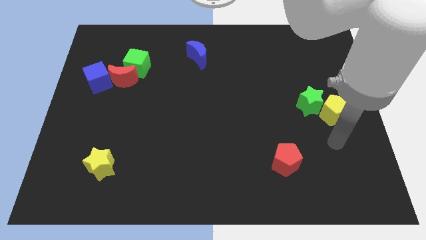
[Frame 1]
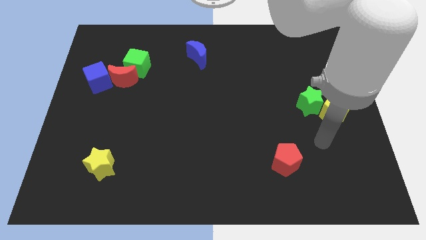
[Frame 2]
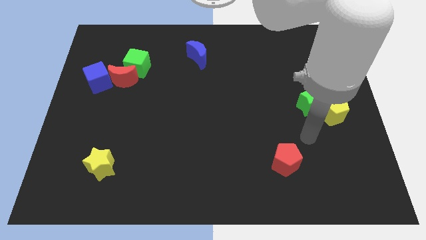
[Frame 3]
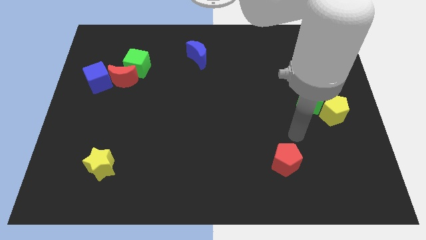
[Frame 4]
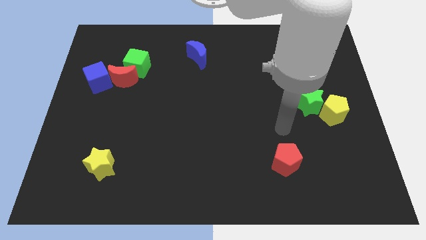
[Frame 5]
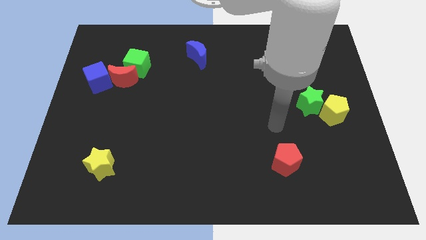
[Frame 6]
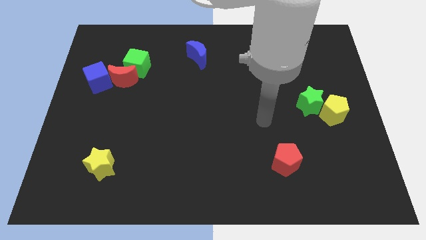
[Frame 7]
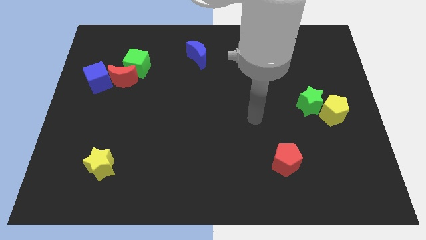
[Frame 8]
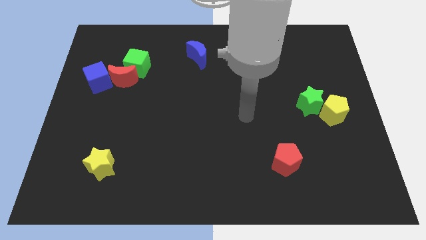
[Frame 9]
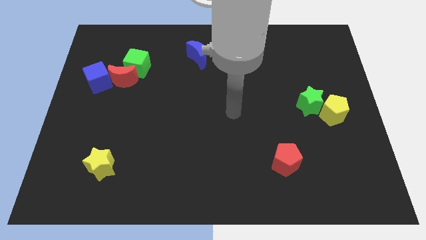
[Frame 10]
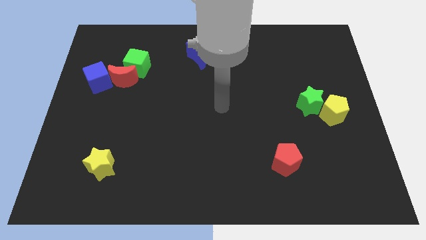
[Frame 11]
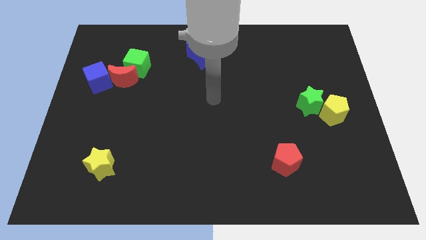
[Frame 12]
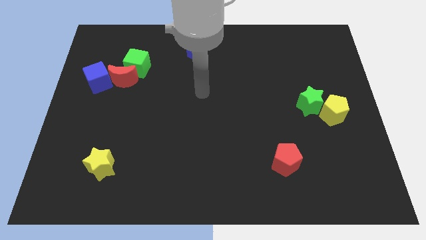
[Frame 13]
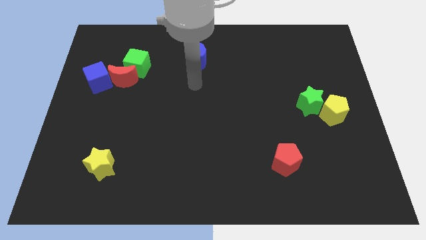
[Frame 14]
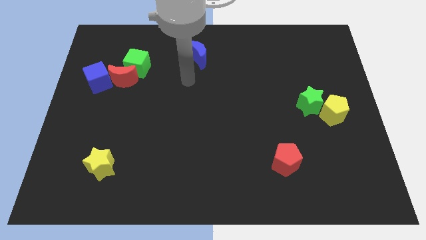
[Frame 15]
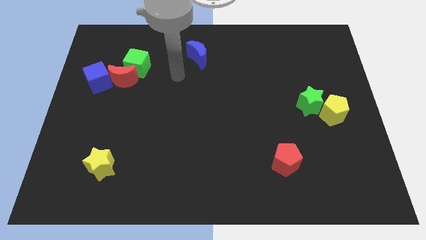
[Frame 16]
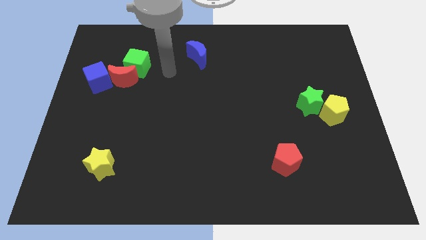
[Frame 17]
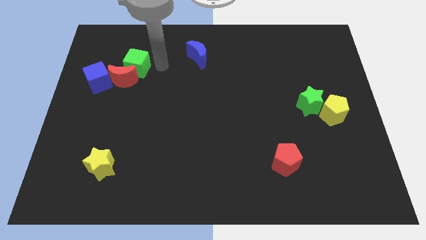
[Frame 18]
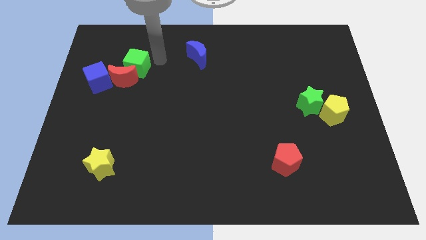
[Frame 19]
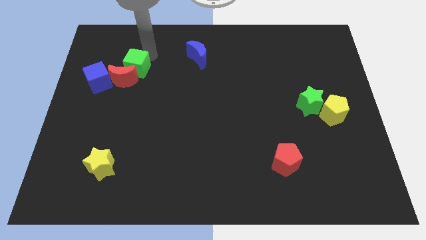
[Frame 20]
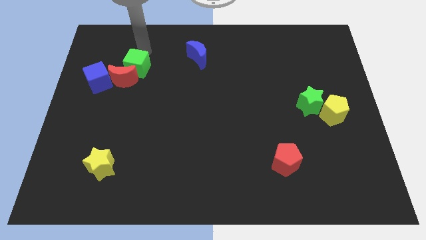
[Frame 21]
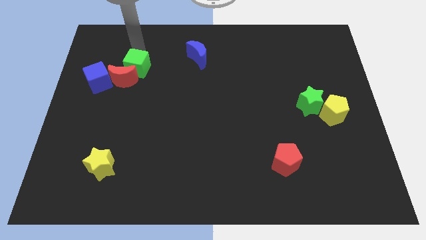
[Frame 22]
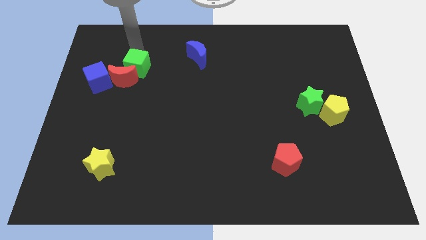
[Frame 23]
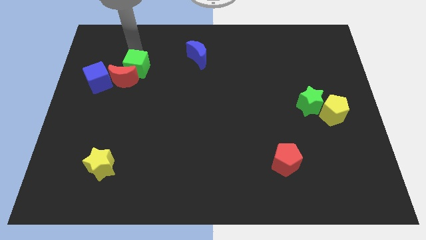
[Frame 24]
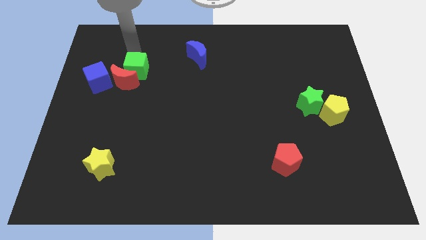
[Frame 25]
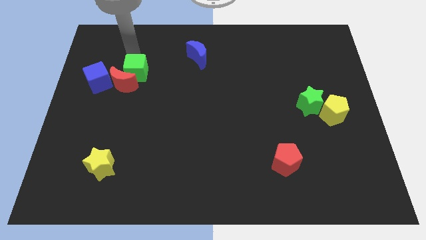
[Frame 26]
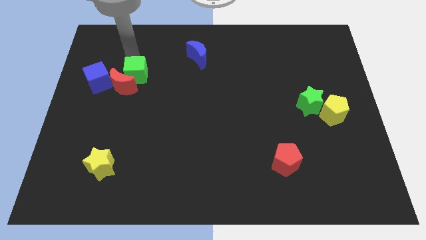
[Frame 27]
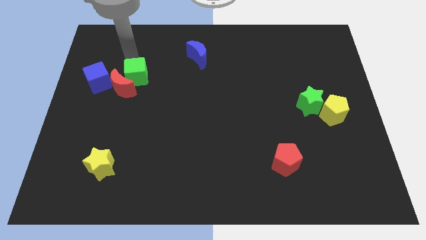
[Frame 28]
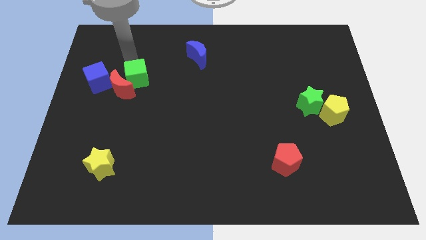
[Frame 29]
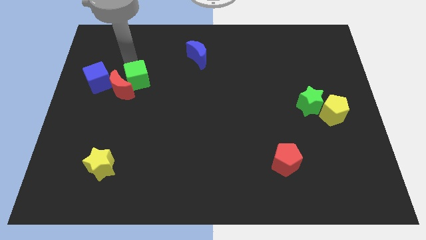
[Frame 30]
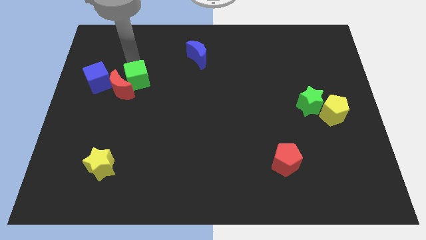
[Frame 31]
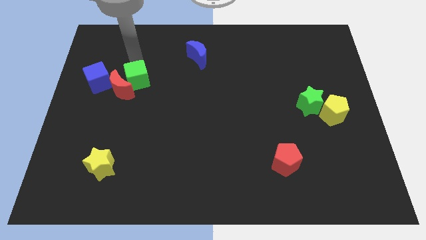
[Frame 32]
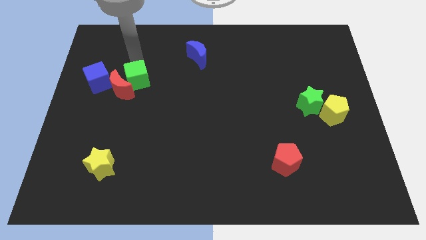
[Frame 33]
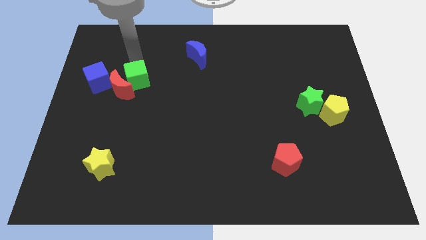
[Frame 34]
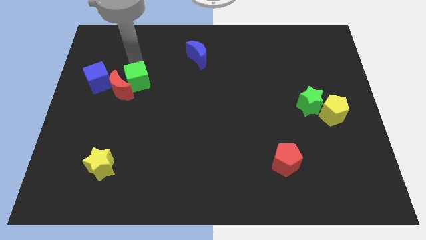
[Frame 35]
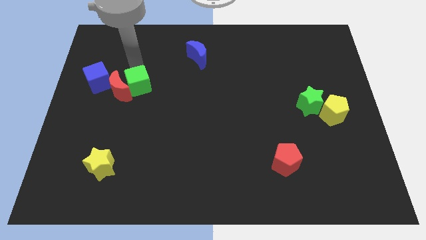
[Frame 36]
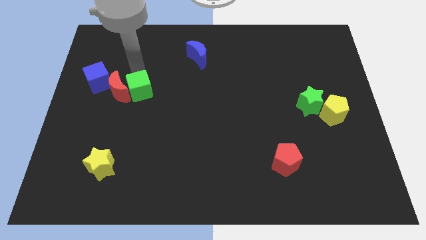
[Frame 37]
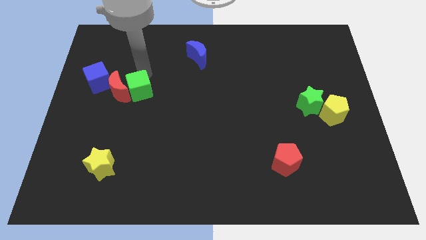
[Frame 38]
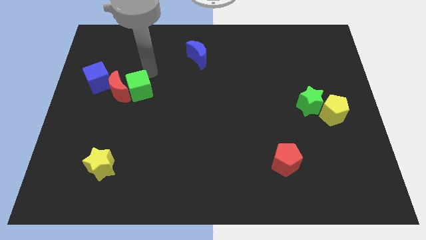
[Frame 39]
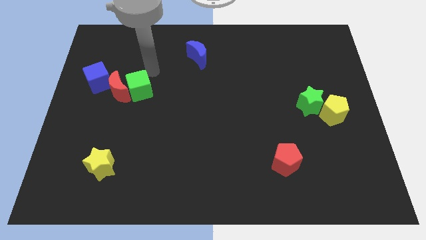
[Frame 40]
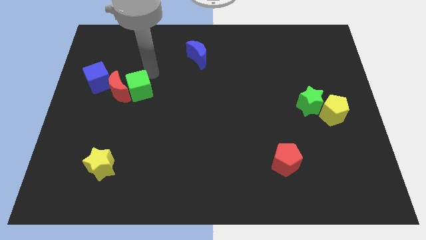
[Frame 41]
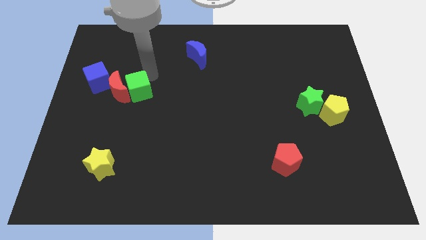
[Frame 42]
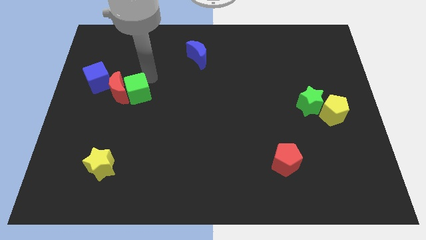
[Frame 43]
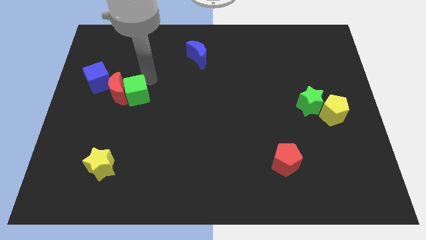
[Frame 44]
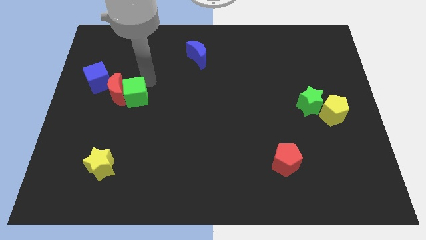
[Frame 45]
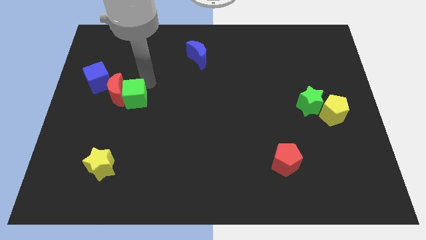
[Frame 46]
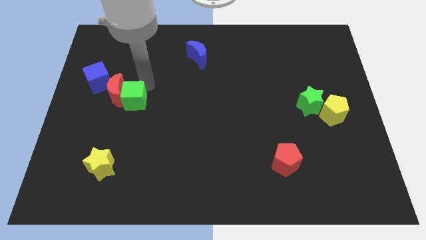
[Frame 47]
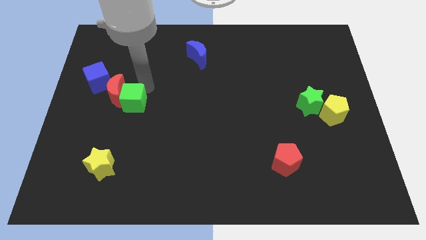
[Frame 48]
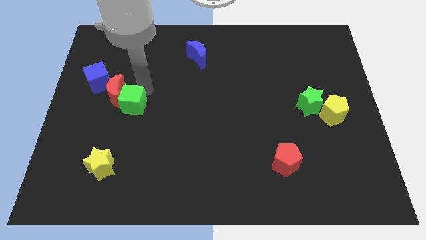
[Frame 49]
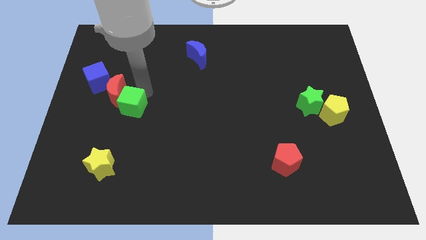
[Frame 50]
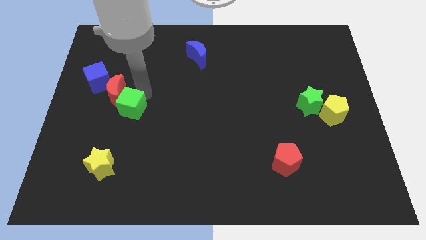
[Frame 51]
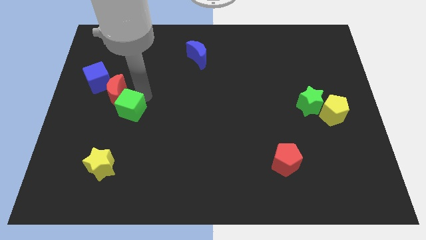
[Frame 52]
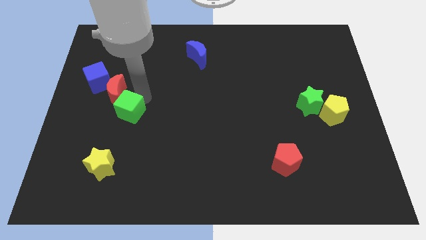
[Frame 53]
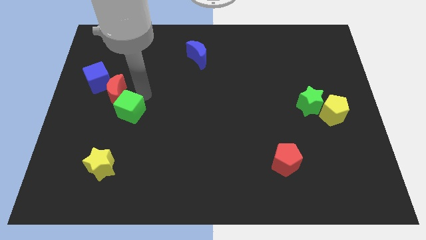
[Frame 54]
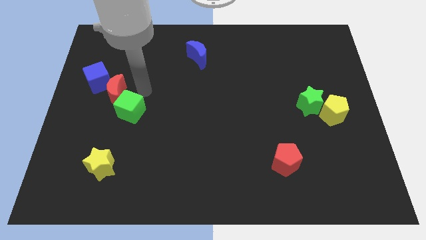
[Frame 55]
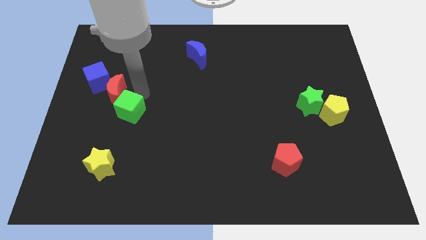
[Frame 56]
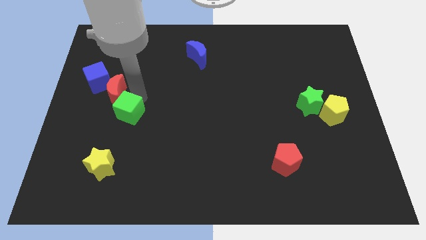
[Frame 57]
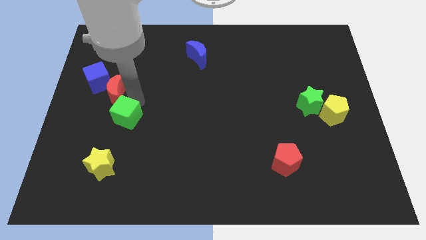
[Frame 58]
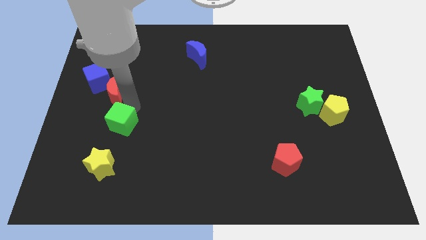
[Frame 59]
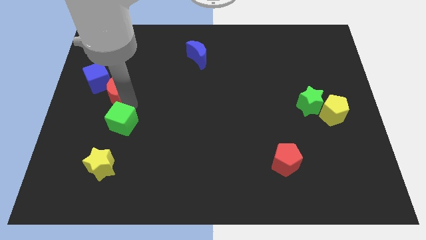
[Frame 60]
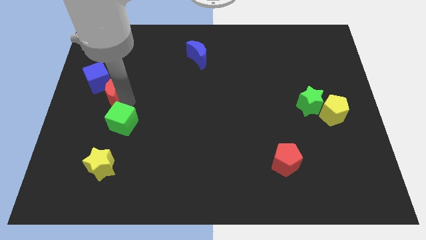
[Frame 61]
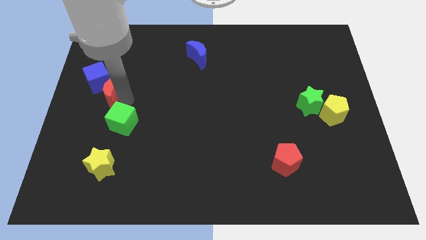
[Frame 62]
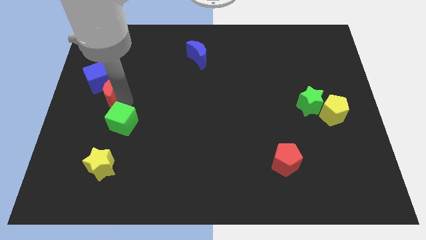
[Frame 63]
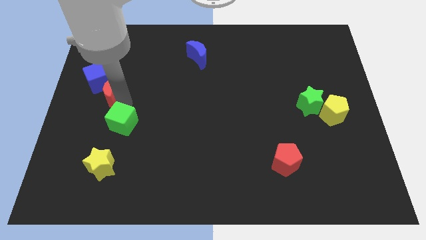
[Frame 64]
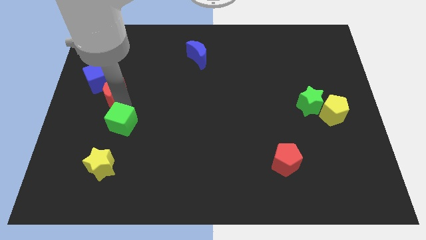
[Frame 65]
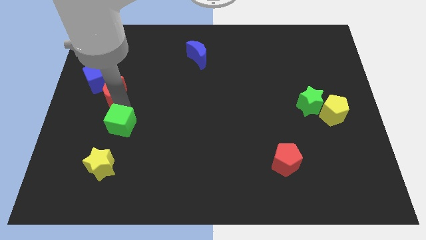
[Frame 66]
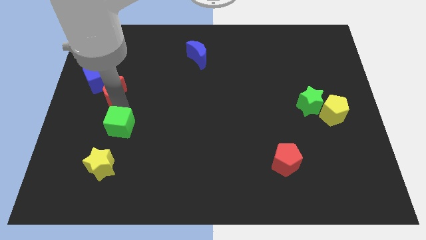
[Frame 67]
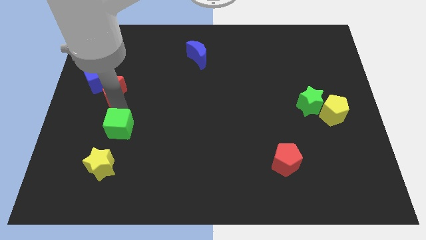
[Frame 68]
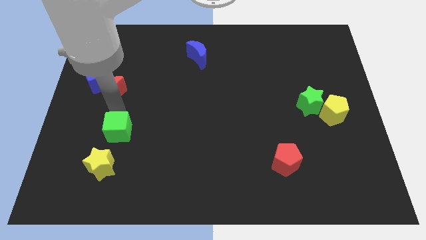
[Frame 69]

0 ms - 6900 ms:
slide the green cube down

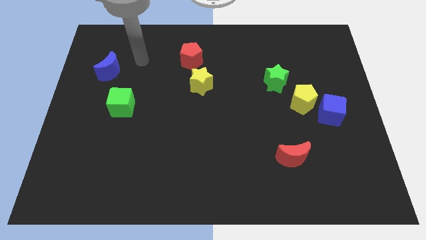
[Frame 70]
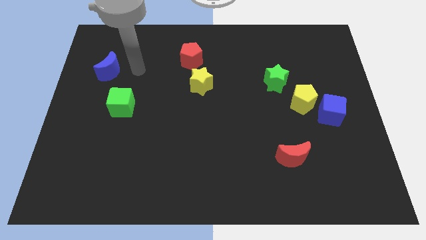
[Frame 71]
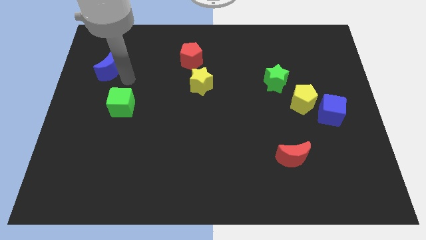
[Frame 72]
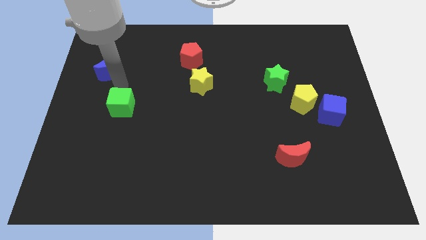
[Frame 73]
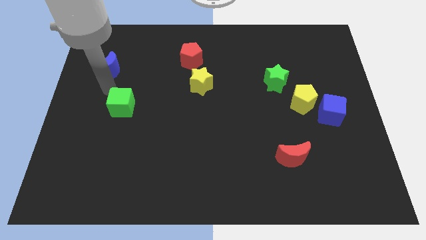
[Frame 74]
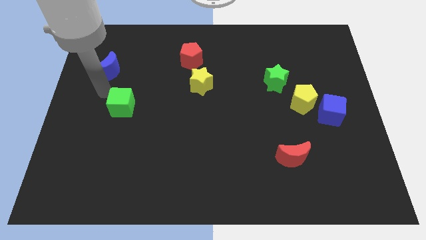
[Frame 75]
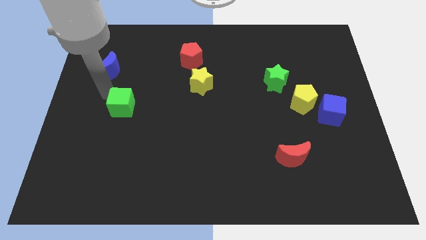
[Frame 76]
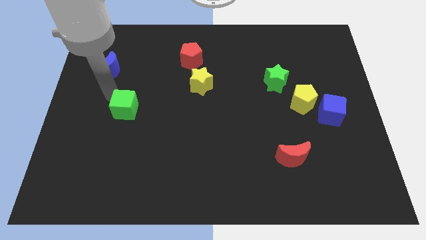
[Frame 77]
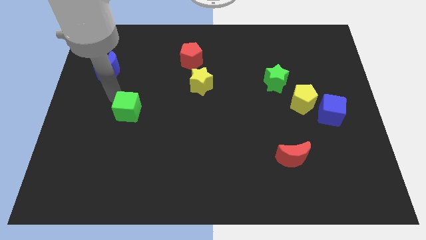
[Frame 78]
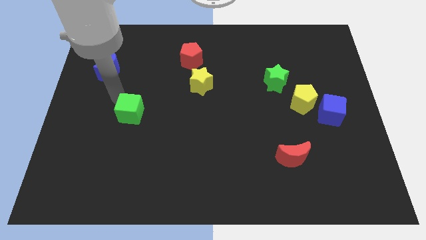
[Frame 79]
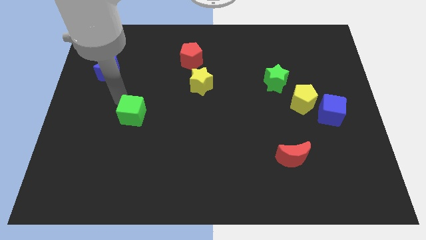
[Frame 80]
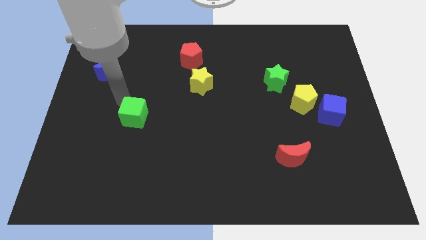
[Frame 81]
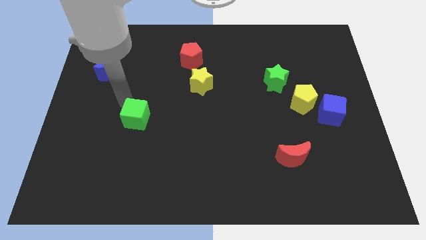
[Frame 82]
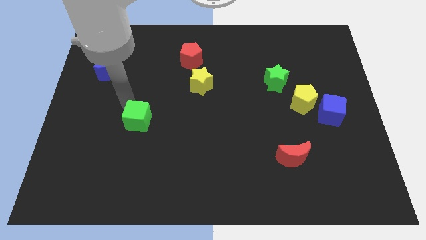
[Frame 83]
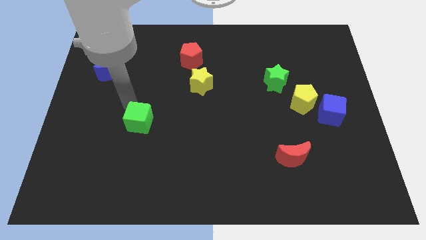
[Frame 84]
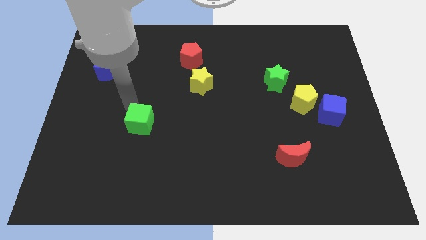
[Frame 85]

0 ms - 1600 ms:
slightly move the green cube downwards and then to the right
